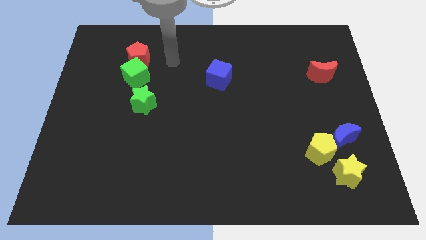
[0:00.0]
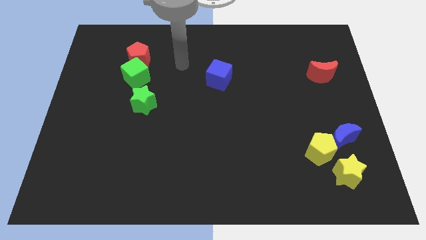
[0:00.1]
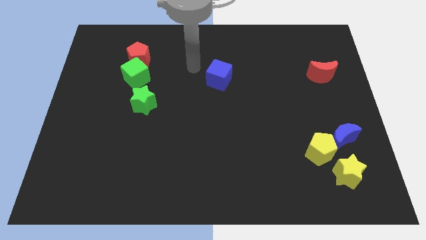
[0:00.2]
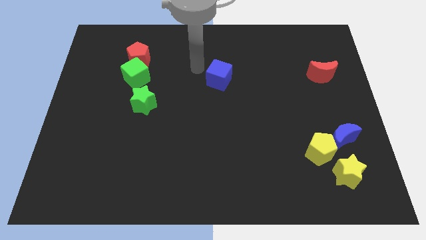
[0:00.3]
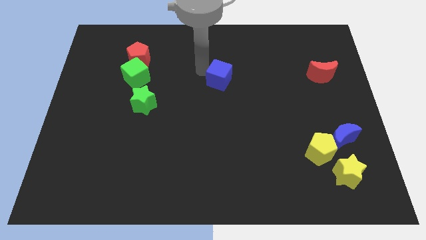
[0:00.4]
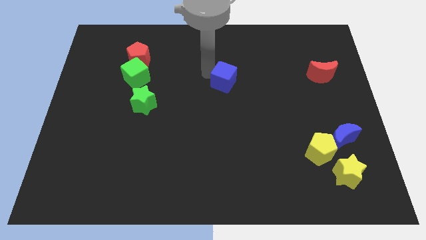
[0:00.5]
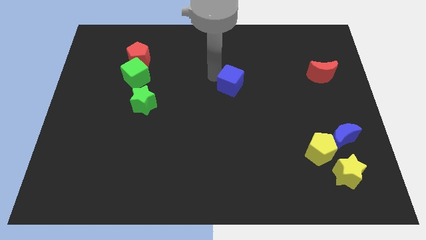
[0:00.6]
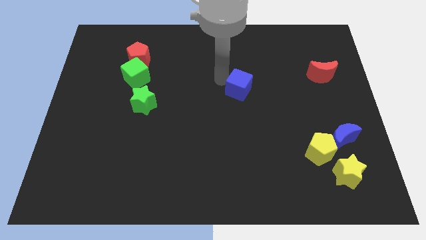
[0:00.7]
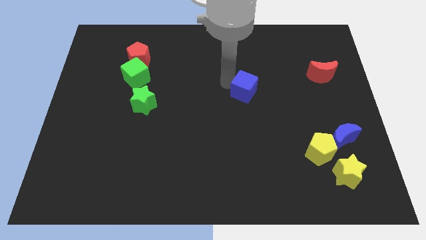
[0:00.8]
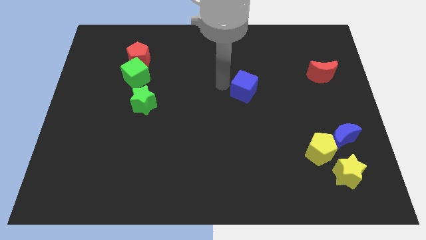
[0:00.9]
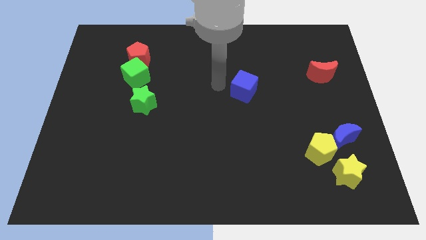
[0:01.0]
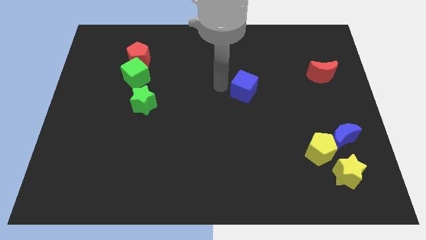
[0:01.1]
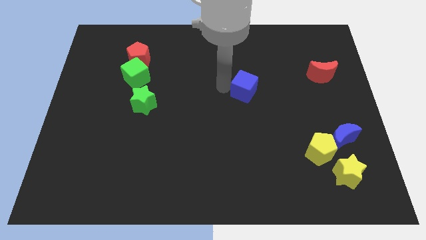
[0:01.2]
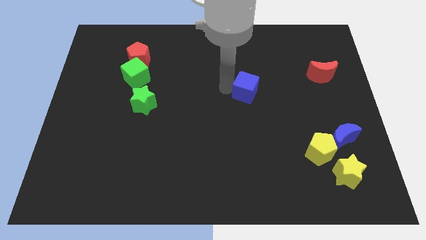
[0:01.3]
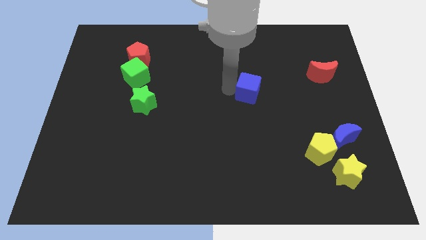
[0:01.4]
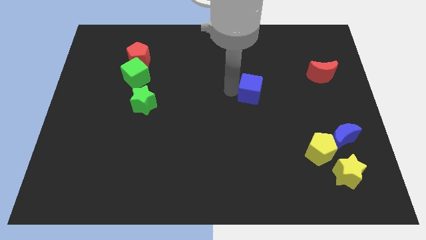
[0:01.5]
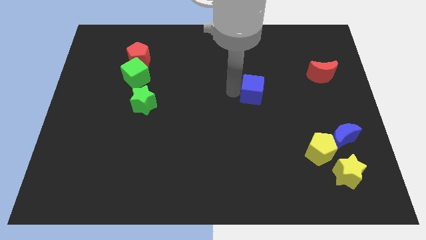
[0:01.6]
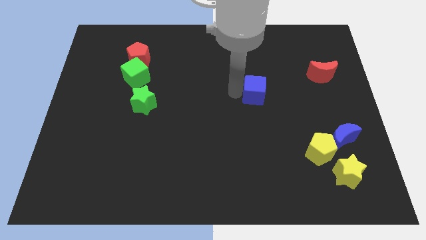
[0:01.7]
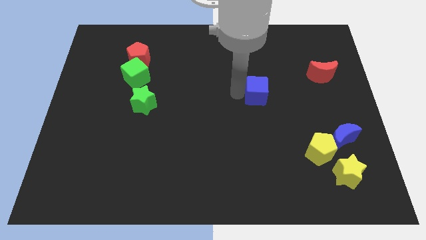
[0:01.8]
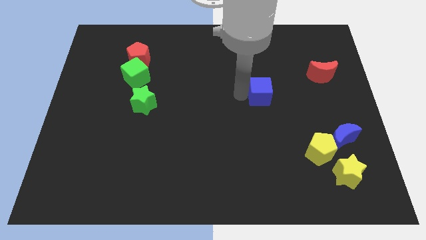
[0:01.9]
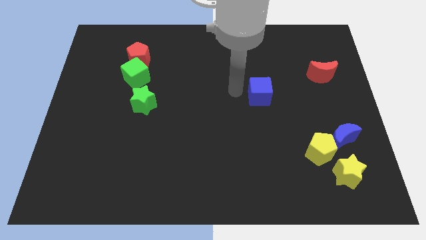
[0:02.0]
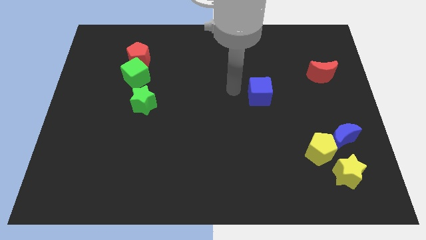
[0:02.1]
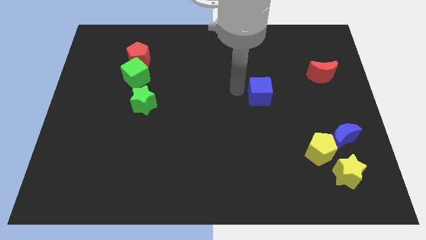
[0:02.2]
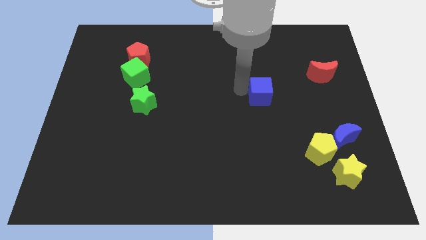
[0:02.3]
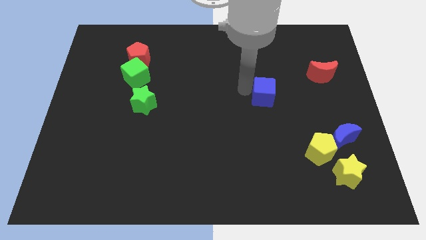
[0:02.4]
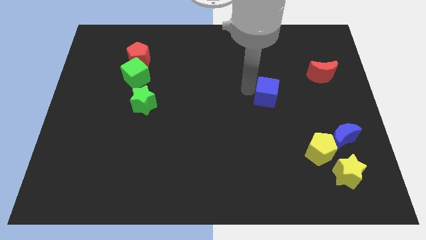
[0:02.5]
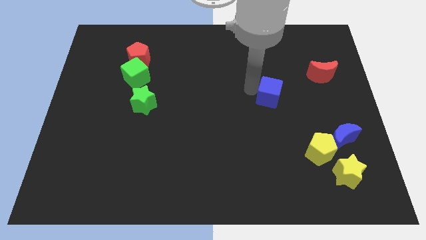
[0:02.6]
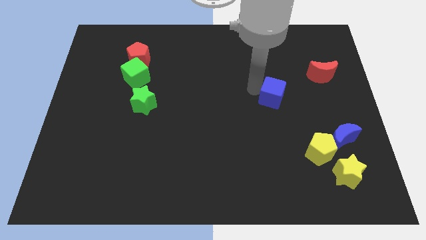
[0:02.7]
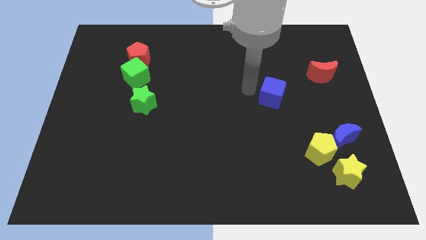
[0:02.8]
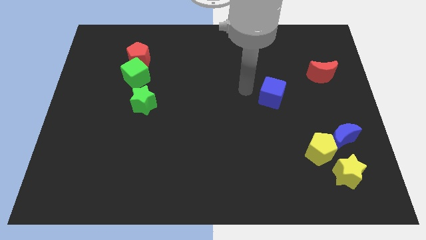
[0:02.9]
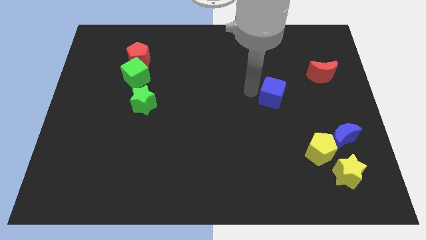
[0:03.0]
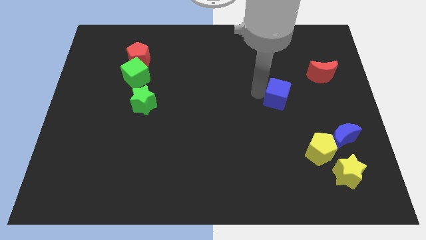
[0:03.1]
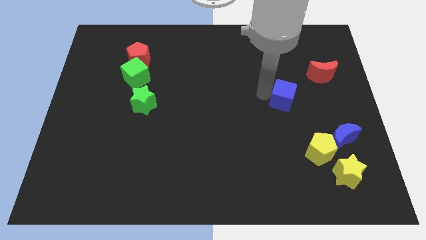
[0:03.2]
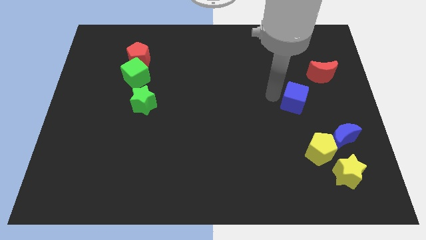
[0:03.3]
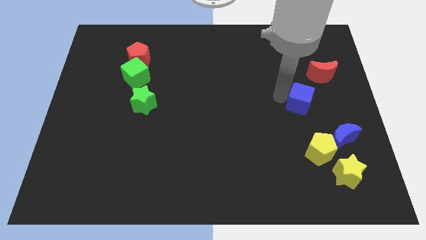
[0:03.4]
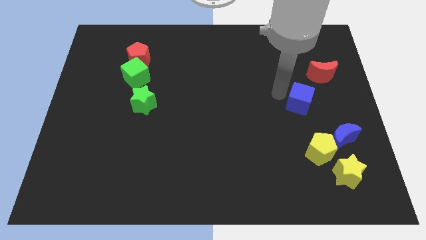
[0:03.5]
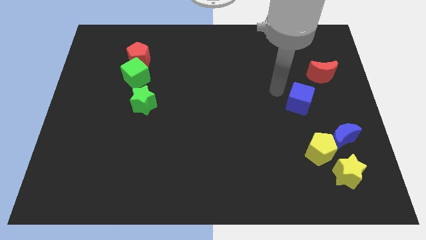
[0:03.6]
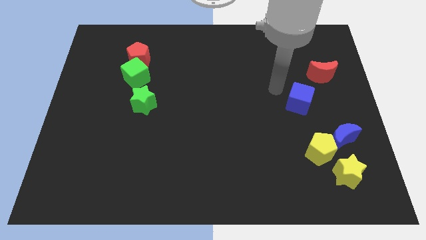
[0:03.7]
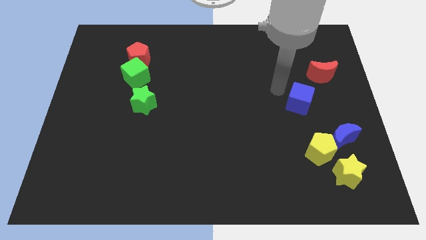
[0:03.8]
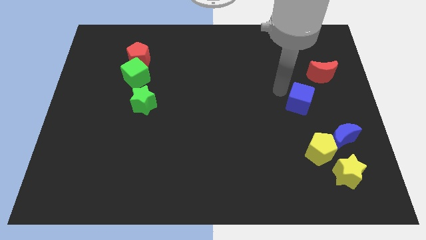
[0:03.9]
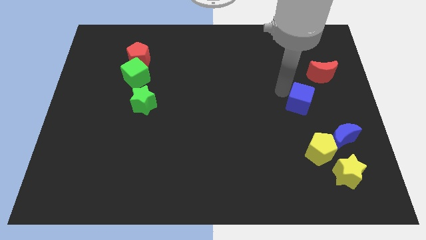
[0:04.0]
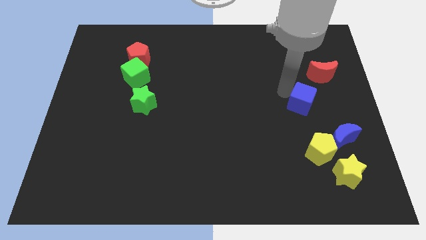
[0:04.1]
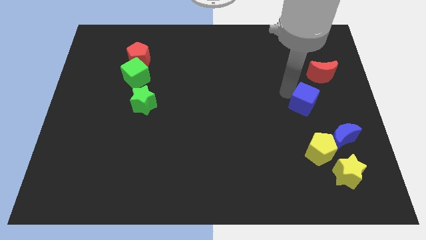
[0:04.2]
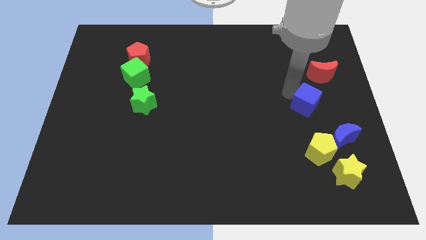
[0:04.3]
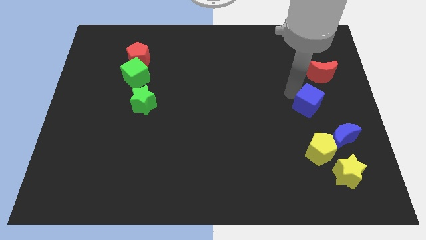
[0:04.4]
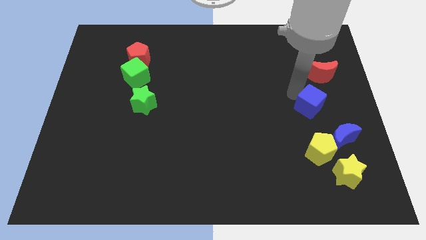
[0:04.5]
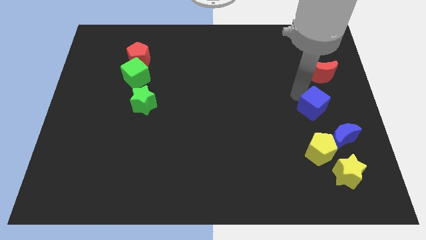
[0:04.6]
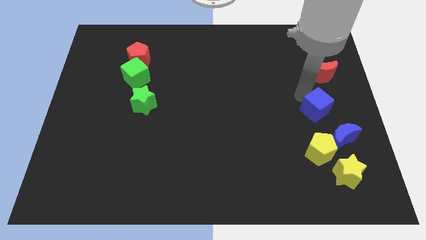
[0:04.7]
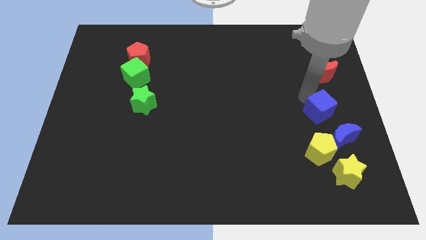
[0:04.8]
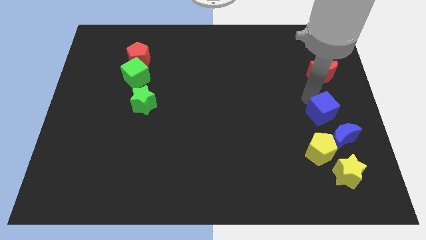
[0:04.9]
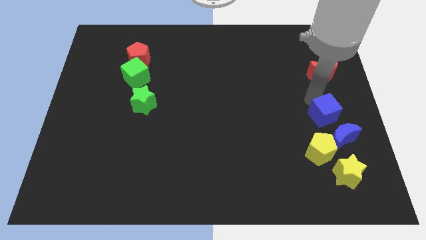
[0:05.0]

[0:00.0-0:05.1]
move the blue cube to the top side of the yellow star

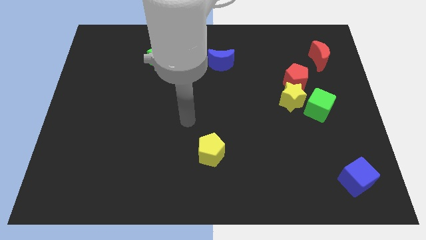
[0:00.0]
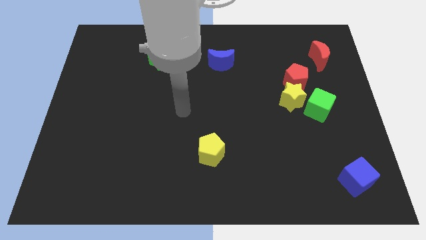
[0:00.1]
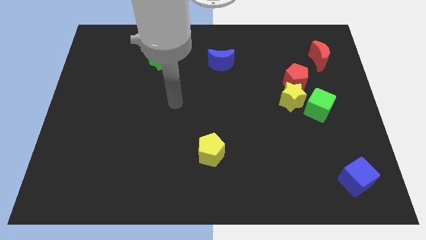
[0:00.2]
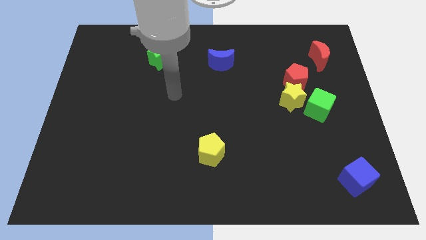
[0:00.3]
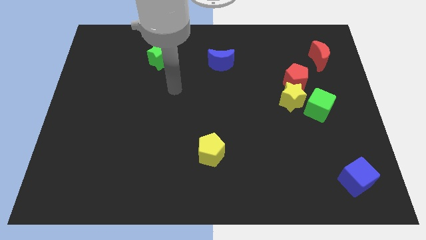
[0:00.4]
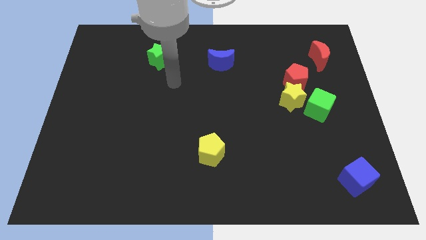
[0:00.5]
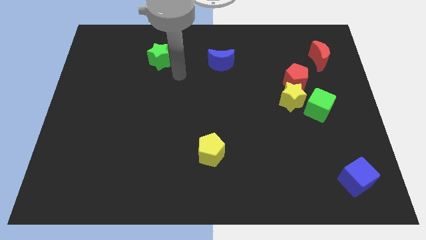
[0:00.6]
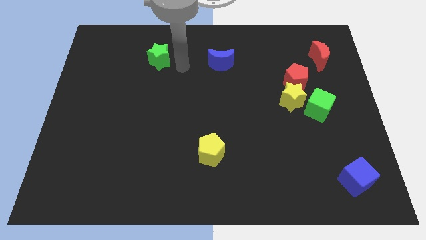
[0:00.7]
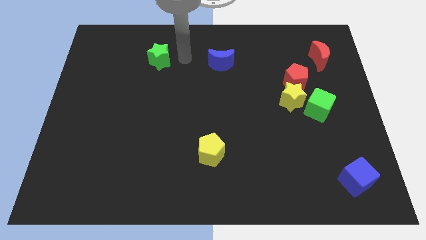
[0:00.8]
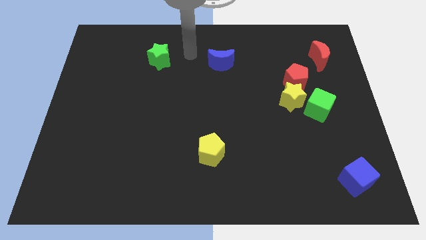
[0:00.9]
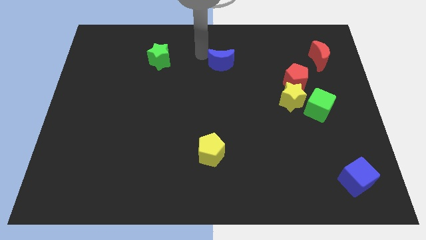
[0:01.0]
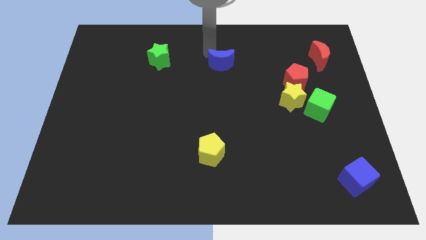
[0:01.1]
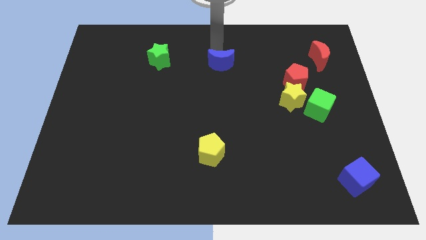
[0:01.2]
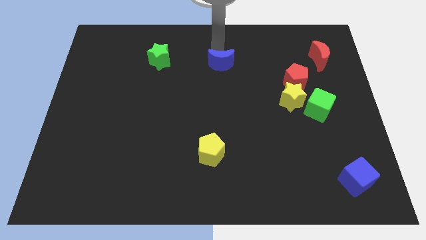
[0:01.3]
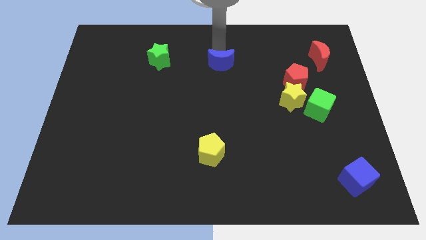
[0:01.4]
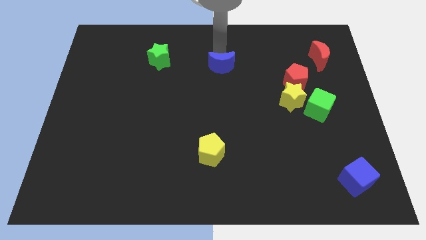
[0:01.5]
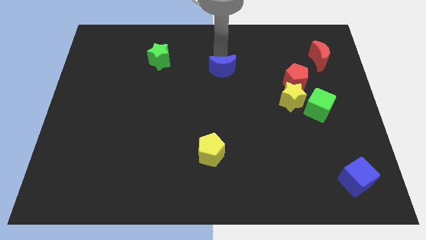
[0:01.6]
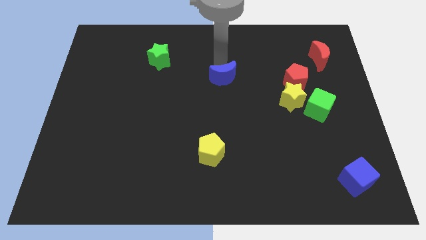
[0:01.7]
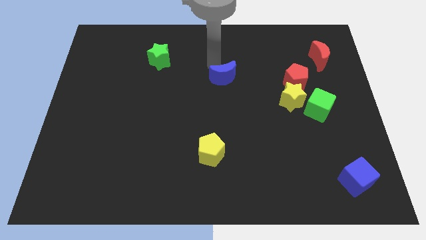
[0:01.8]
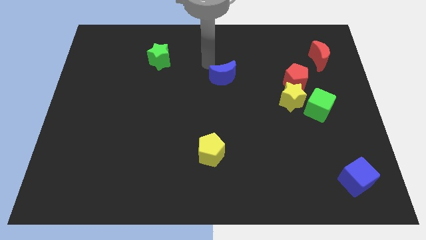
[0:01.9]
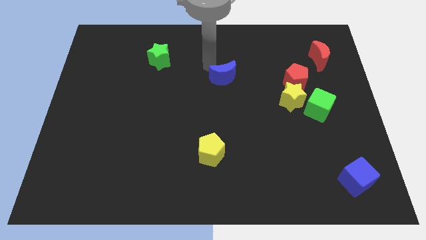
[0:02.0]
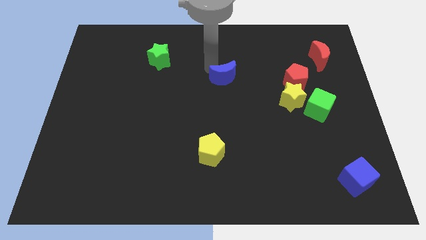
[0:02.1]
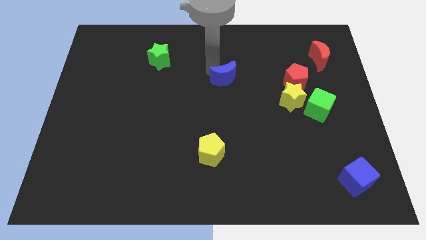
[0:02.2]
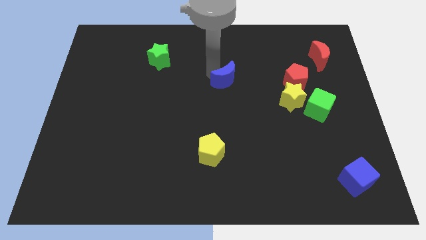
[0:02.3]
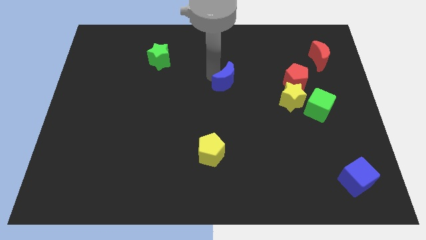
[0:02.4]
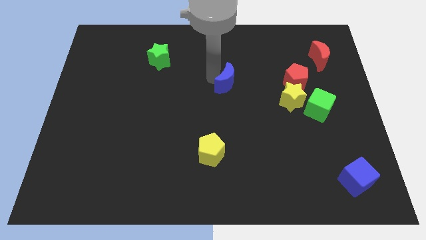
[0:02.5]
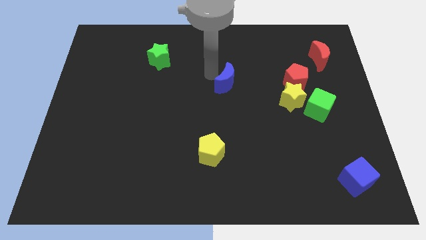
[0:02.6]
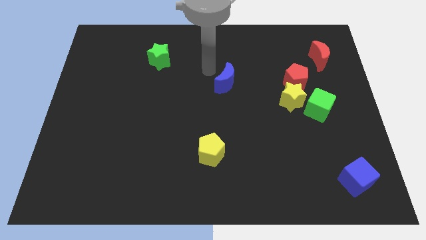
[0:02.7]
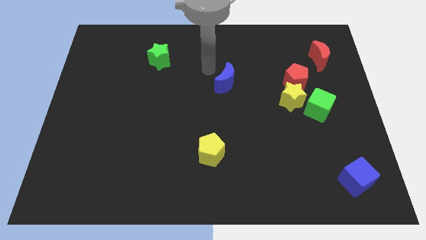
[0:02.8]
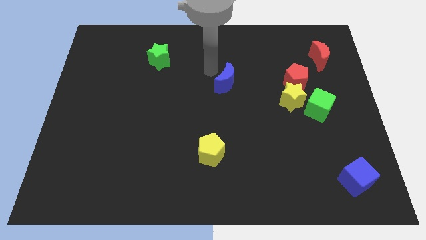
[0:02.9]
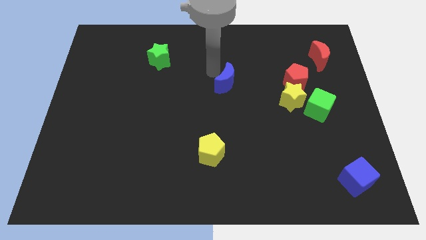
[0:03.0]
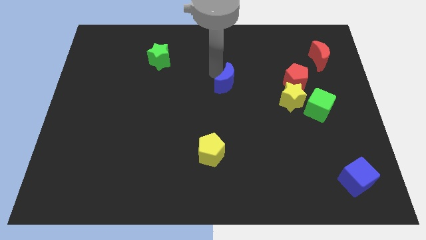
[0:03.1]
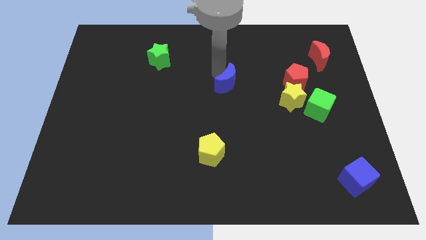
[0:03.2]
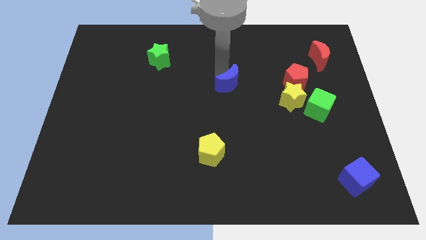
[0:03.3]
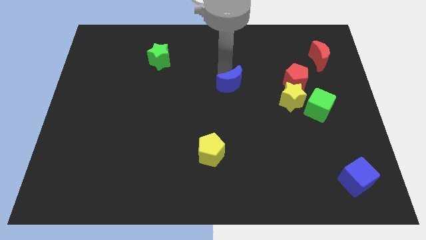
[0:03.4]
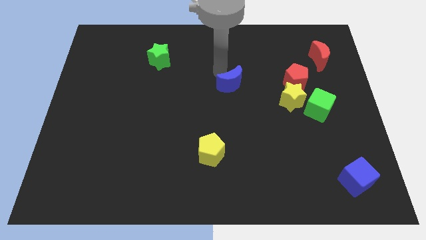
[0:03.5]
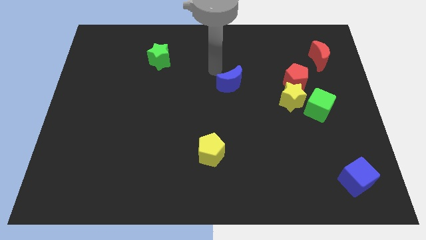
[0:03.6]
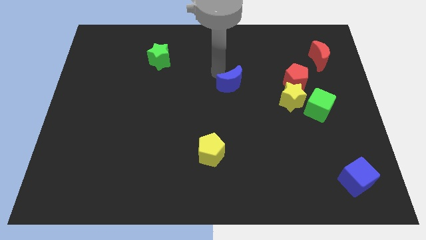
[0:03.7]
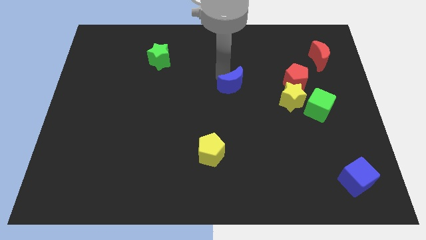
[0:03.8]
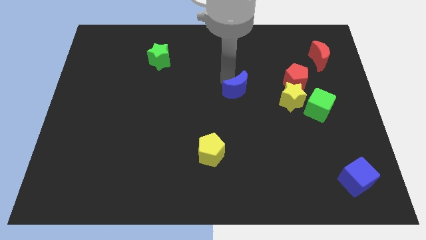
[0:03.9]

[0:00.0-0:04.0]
move the blue moon left of the yellow star
